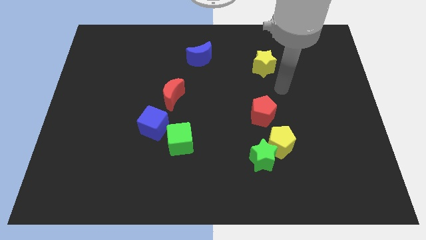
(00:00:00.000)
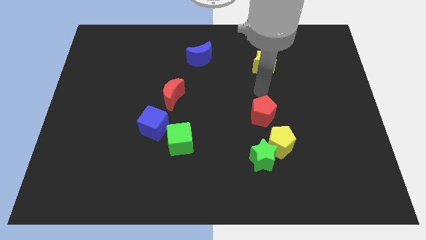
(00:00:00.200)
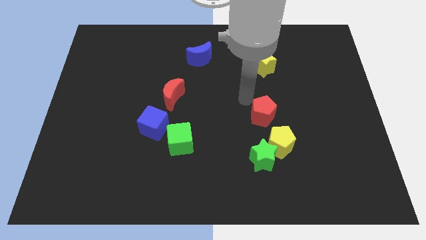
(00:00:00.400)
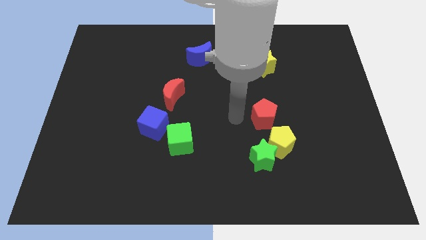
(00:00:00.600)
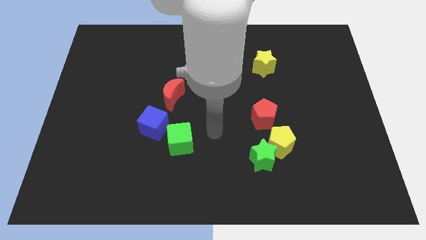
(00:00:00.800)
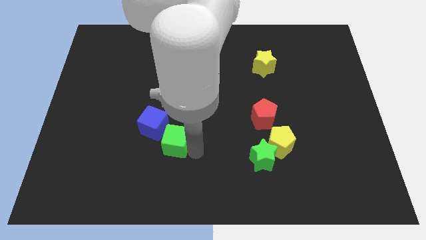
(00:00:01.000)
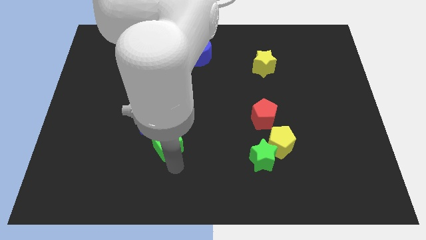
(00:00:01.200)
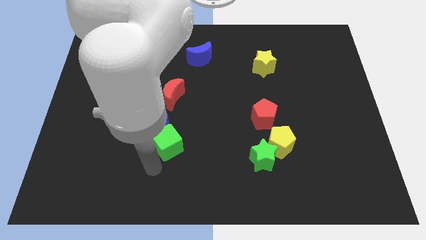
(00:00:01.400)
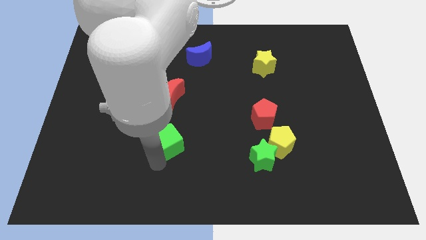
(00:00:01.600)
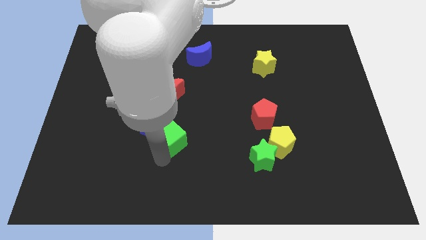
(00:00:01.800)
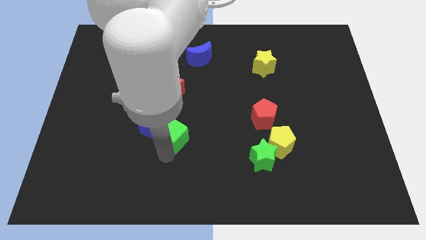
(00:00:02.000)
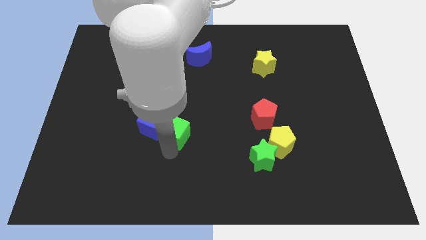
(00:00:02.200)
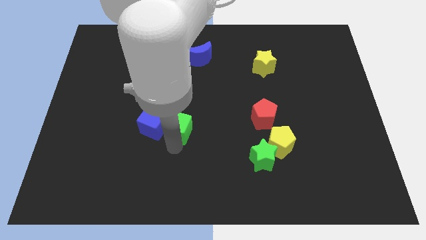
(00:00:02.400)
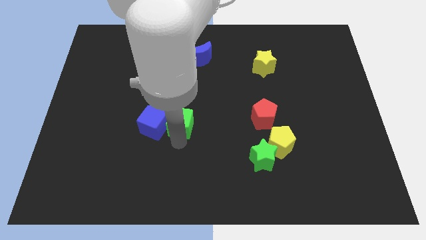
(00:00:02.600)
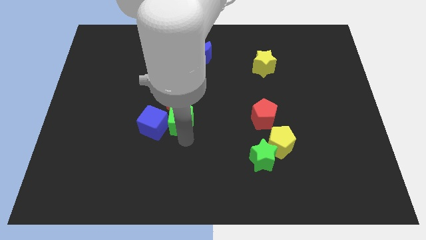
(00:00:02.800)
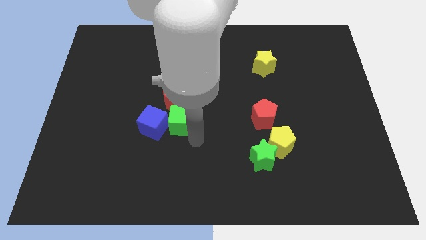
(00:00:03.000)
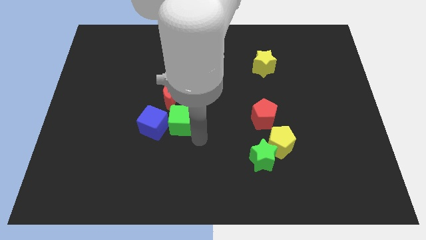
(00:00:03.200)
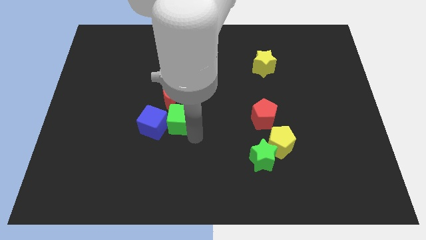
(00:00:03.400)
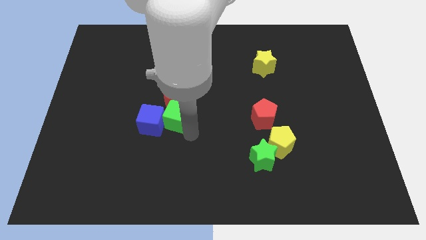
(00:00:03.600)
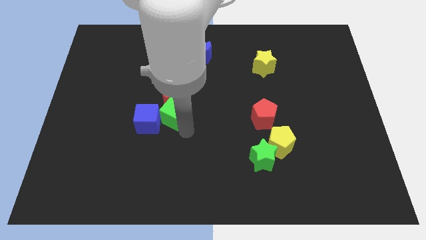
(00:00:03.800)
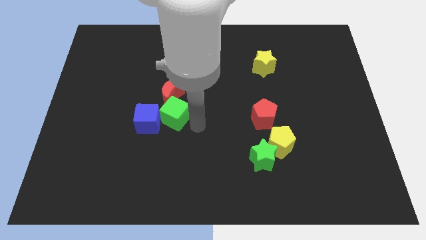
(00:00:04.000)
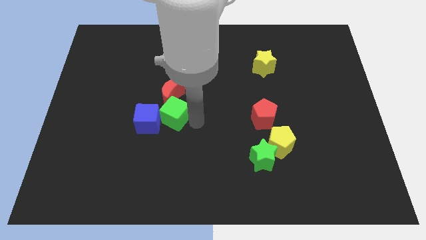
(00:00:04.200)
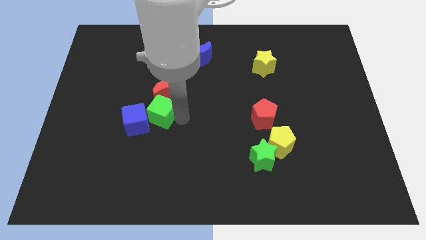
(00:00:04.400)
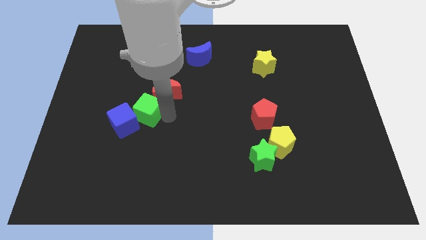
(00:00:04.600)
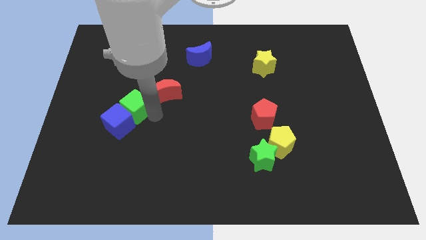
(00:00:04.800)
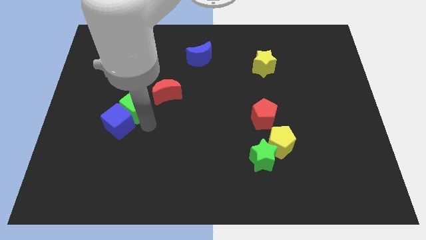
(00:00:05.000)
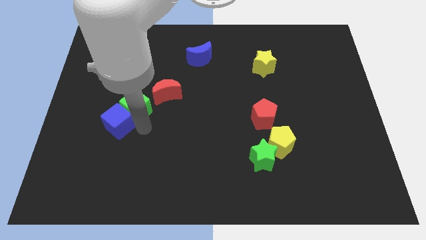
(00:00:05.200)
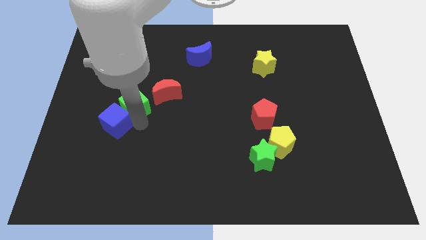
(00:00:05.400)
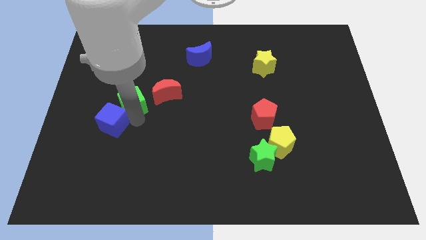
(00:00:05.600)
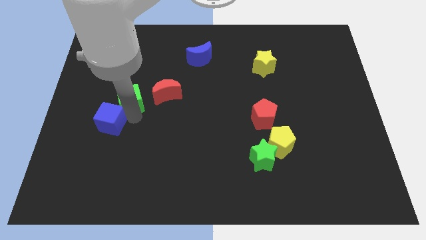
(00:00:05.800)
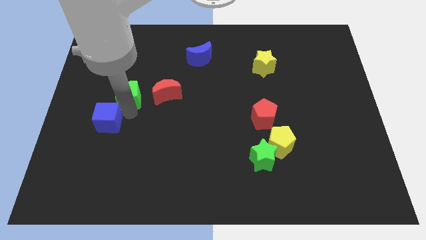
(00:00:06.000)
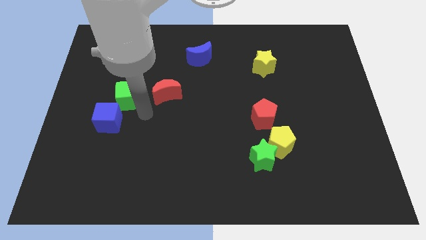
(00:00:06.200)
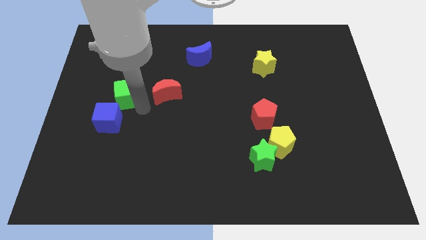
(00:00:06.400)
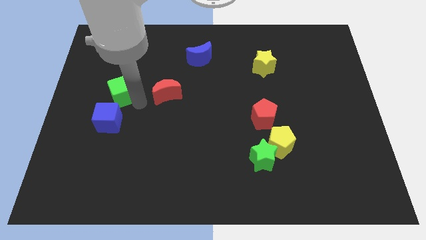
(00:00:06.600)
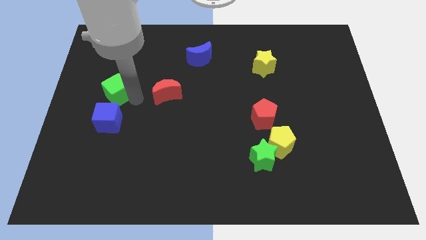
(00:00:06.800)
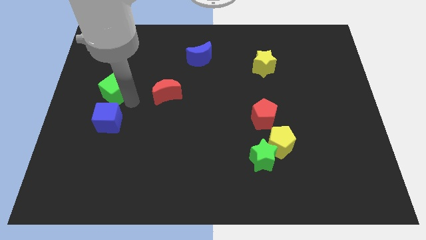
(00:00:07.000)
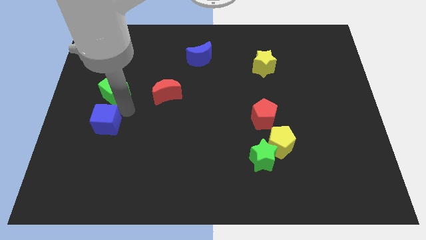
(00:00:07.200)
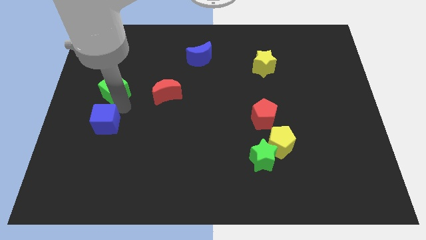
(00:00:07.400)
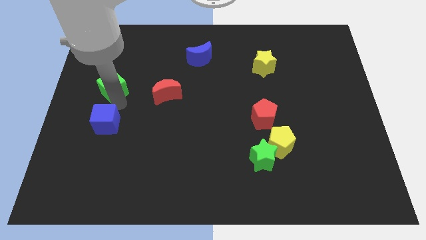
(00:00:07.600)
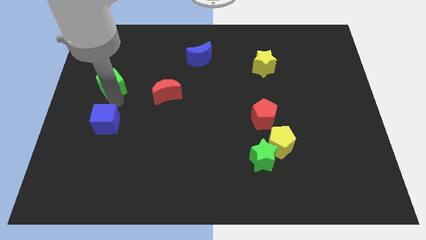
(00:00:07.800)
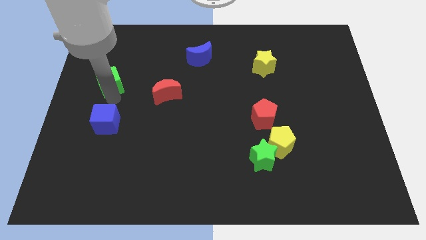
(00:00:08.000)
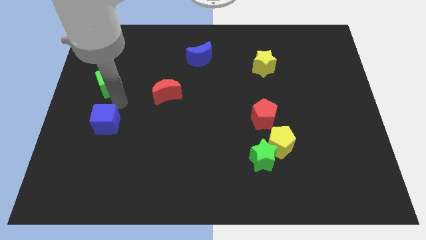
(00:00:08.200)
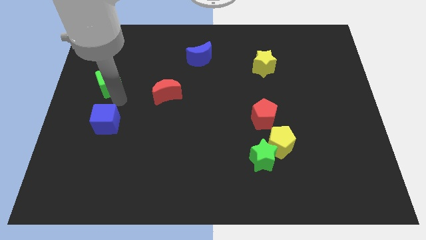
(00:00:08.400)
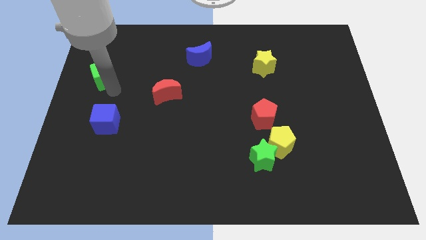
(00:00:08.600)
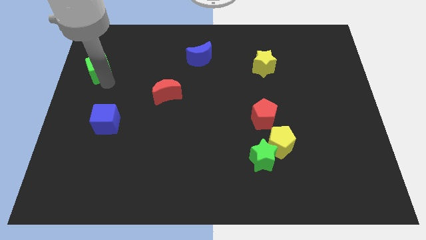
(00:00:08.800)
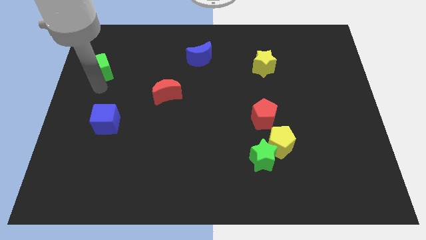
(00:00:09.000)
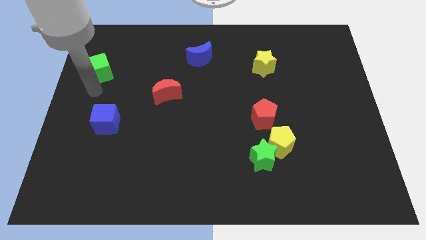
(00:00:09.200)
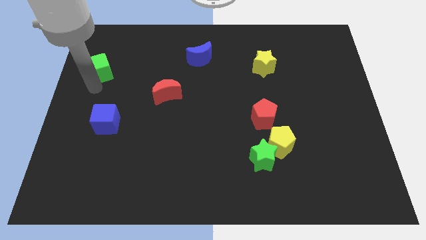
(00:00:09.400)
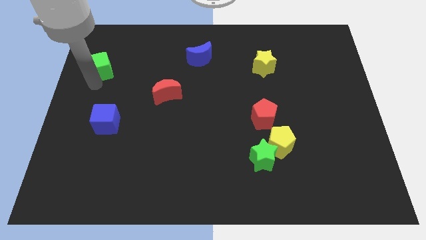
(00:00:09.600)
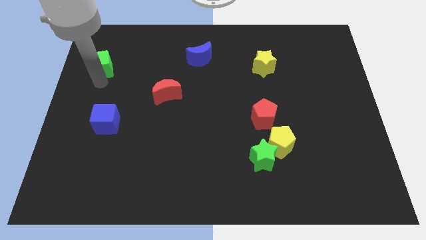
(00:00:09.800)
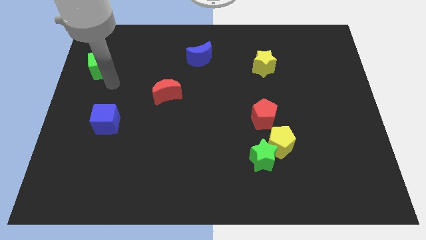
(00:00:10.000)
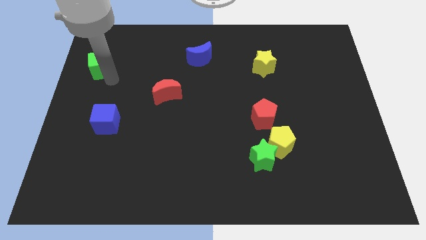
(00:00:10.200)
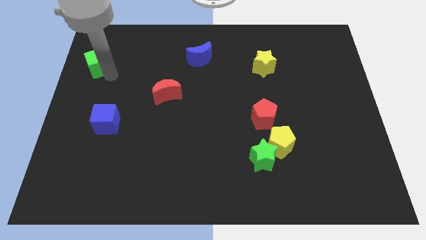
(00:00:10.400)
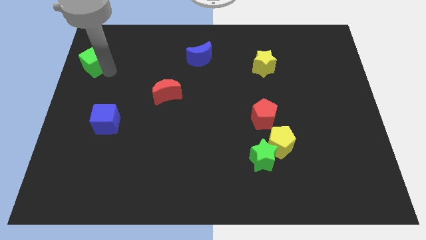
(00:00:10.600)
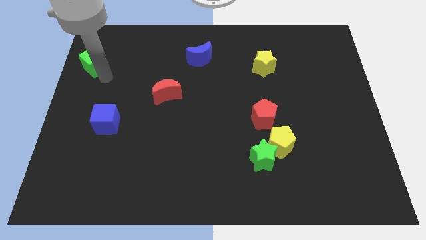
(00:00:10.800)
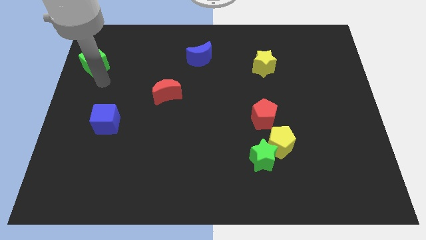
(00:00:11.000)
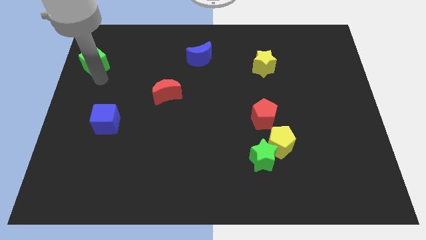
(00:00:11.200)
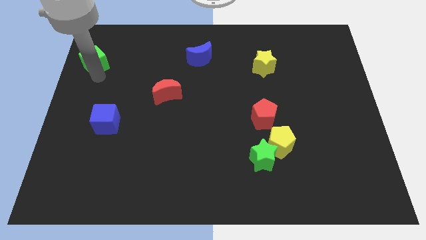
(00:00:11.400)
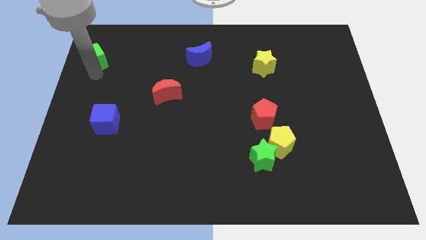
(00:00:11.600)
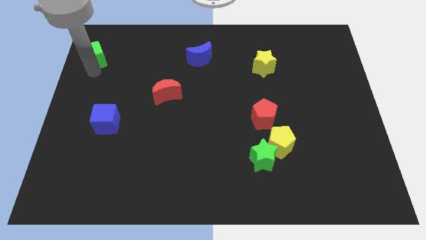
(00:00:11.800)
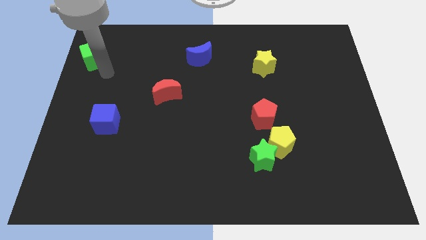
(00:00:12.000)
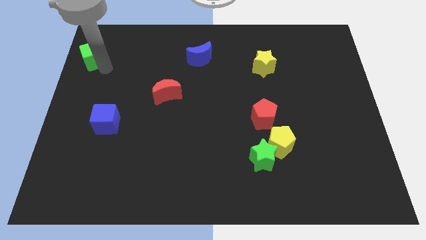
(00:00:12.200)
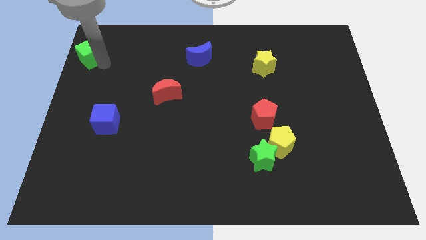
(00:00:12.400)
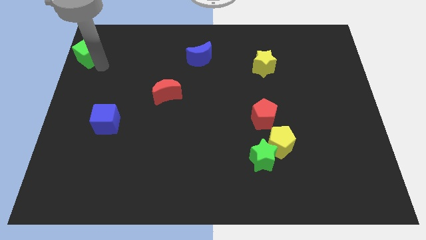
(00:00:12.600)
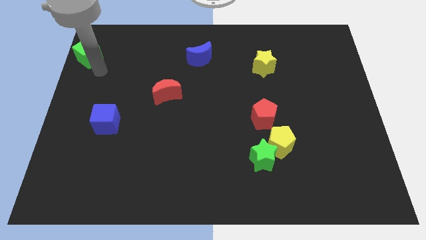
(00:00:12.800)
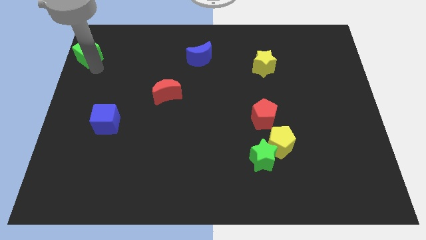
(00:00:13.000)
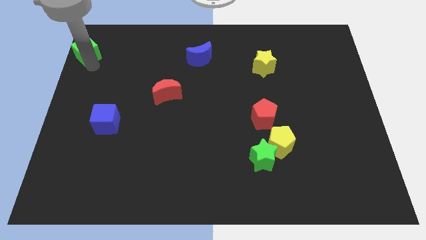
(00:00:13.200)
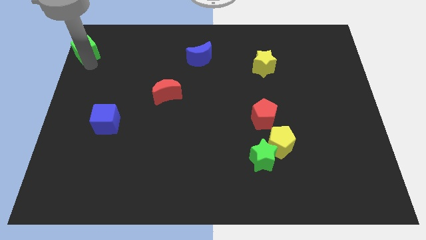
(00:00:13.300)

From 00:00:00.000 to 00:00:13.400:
move the green cube to the top left corner
